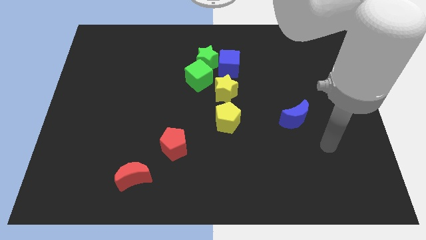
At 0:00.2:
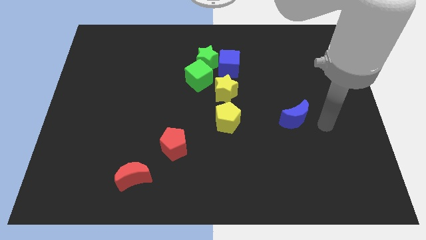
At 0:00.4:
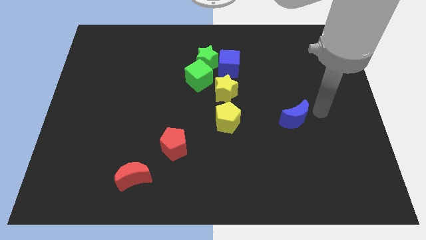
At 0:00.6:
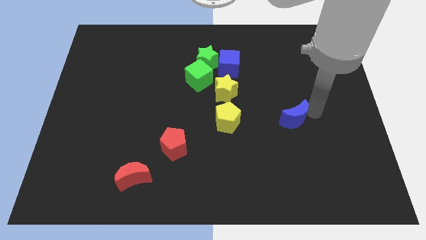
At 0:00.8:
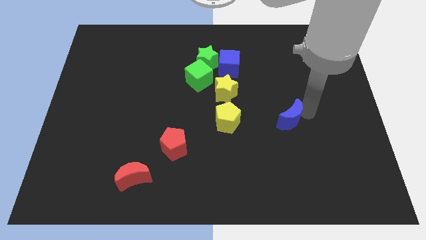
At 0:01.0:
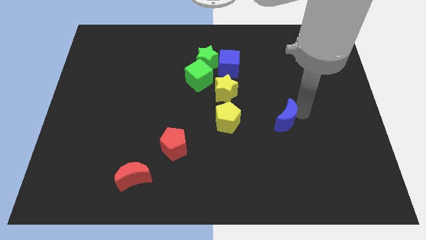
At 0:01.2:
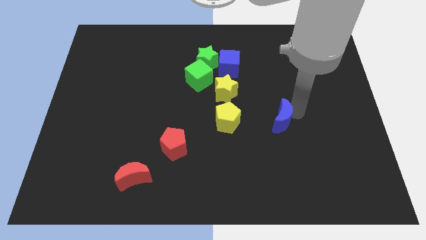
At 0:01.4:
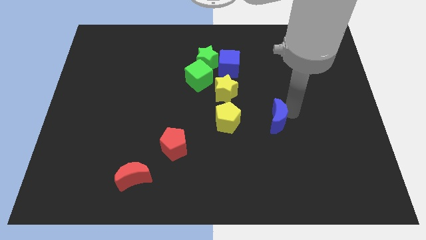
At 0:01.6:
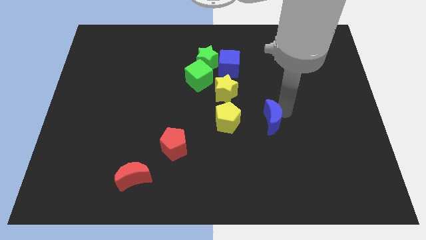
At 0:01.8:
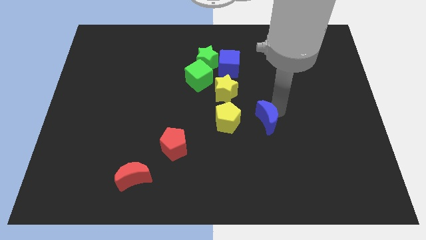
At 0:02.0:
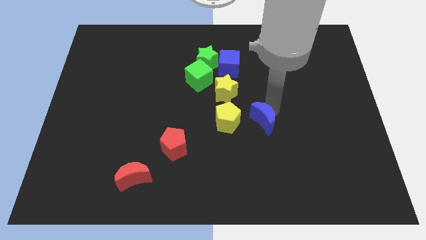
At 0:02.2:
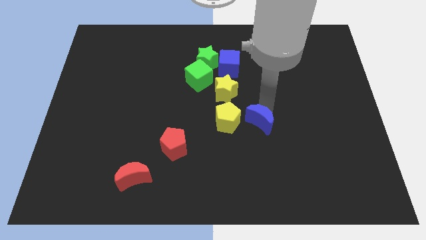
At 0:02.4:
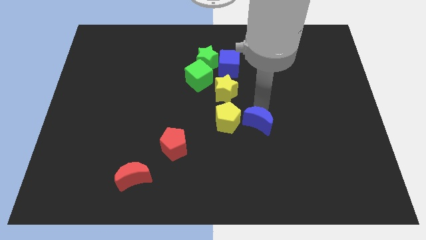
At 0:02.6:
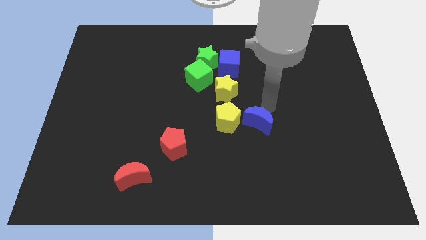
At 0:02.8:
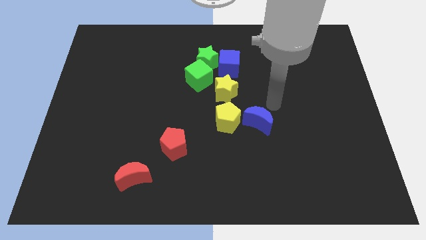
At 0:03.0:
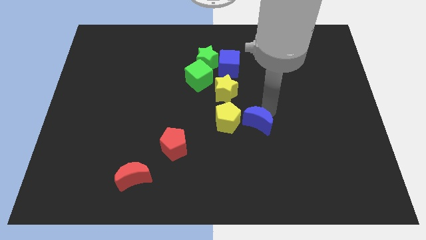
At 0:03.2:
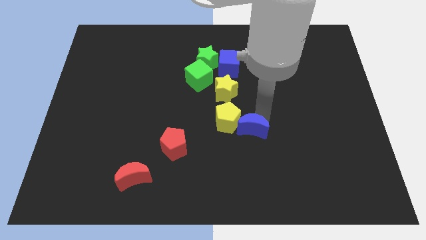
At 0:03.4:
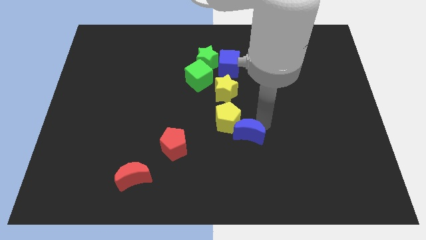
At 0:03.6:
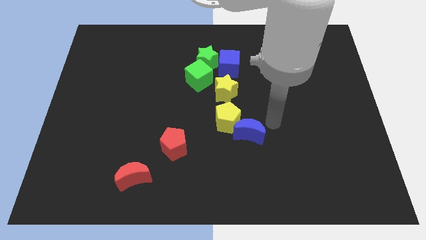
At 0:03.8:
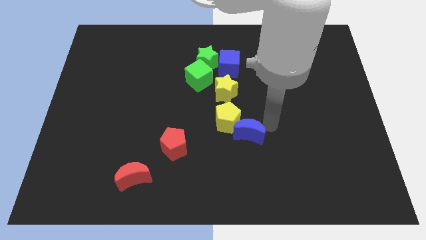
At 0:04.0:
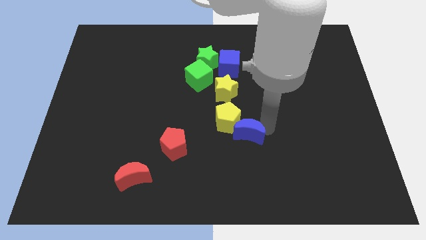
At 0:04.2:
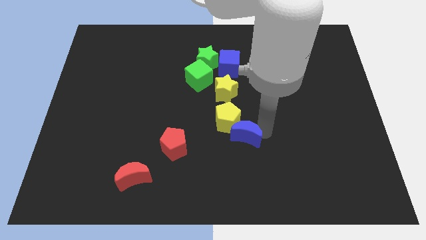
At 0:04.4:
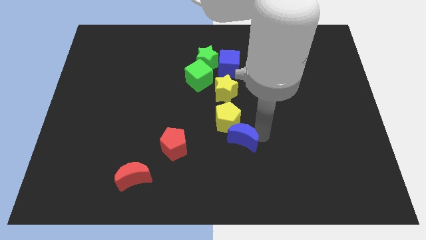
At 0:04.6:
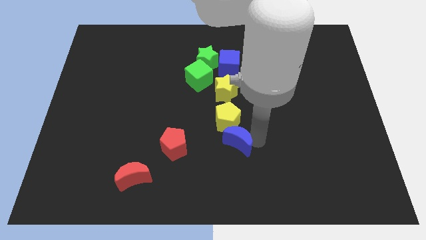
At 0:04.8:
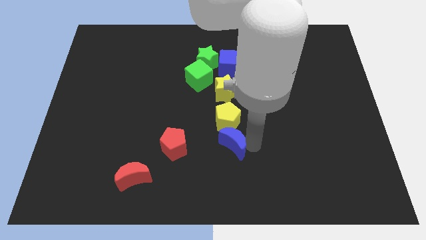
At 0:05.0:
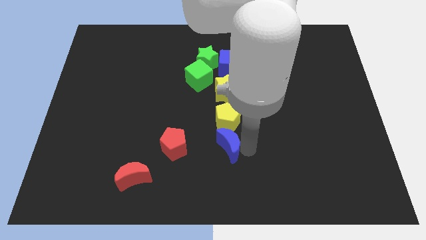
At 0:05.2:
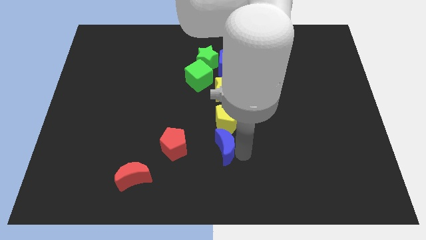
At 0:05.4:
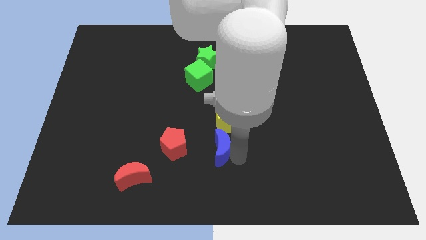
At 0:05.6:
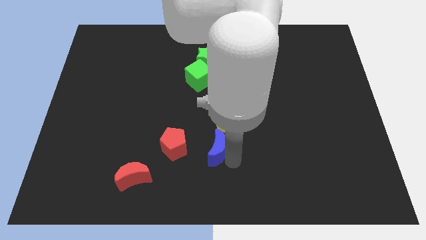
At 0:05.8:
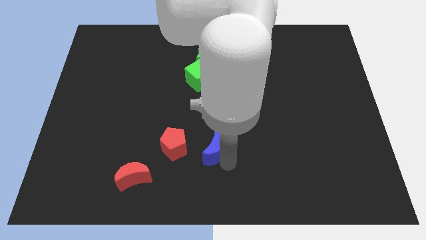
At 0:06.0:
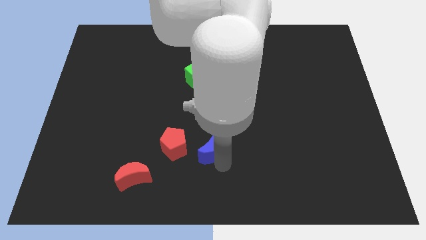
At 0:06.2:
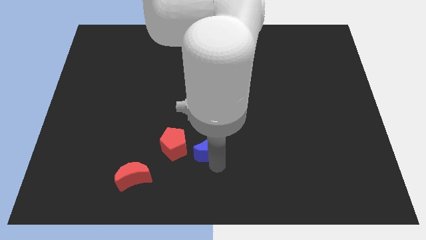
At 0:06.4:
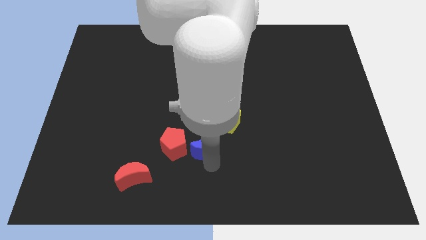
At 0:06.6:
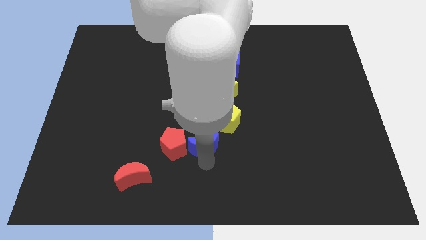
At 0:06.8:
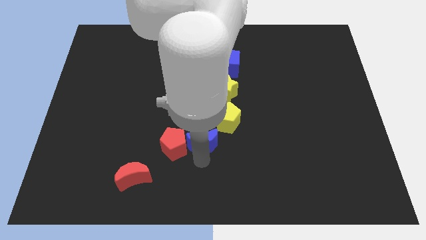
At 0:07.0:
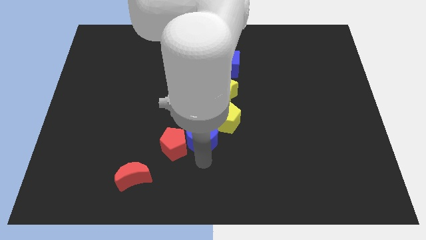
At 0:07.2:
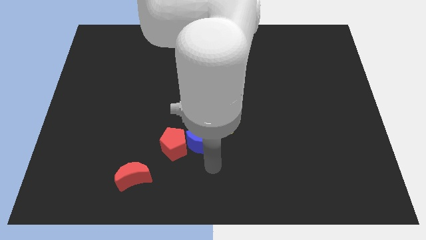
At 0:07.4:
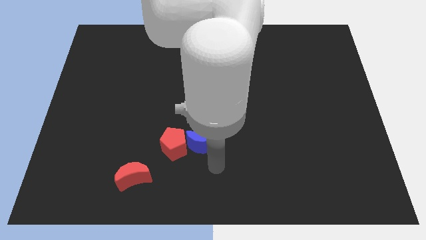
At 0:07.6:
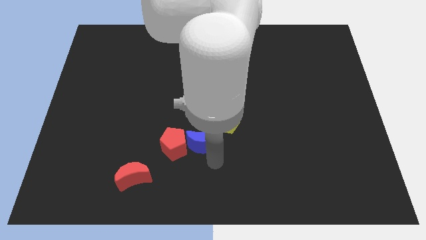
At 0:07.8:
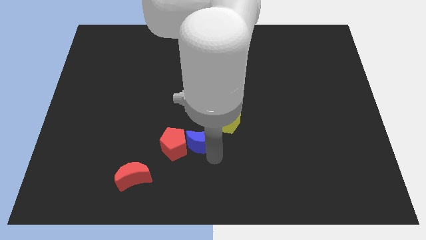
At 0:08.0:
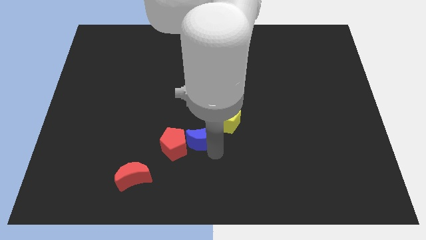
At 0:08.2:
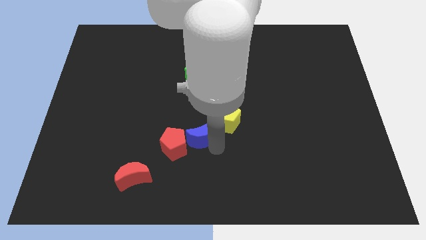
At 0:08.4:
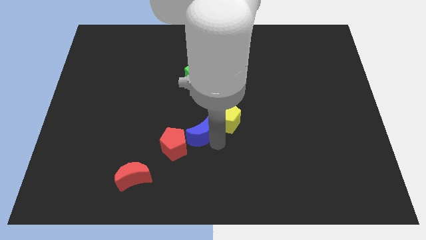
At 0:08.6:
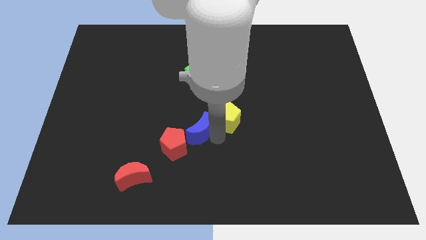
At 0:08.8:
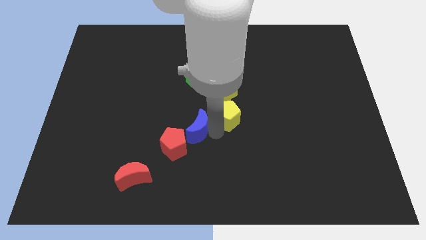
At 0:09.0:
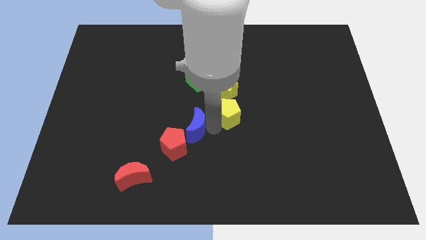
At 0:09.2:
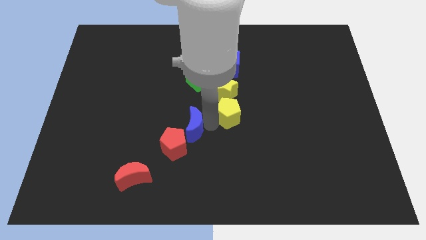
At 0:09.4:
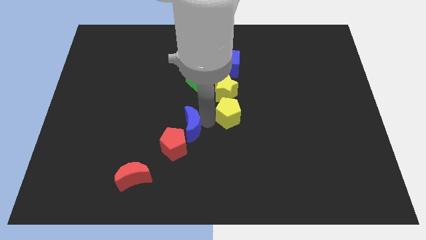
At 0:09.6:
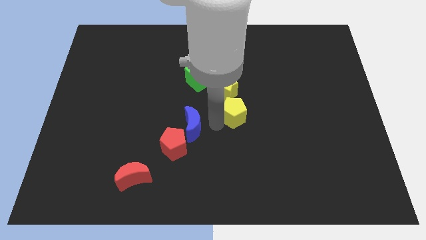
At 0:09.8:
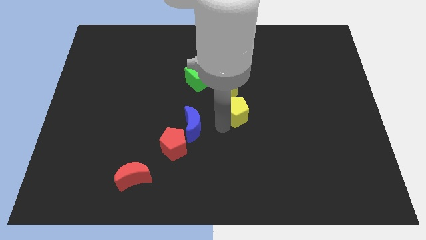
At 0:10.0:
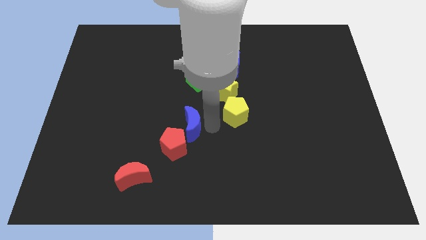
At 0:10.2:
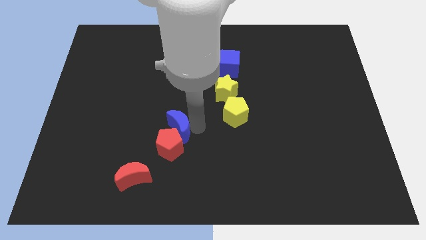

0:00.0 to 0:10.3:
move the blue moon to the top left of the red pentagon

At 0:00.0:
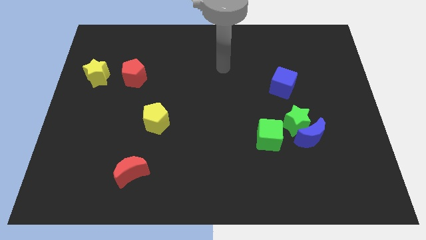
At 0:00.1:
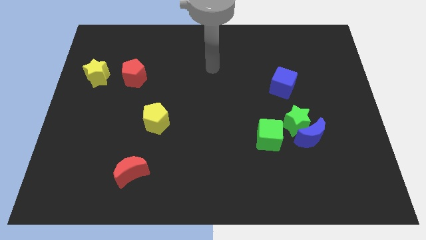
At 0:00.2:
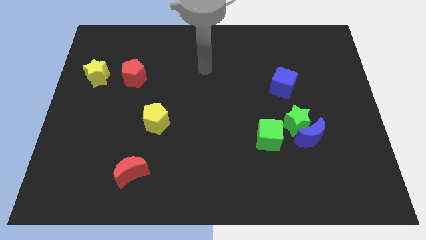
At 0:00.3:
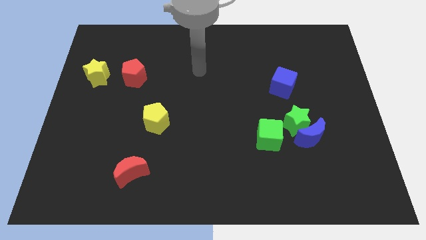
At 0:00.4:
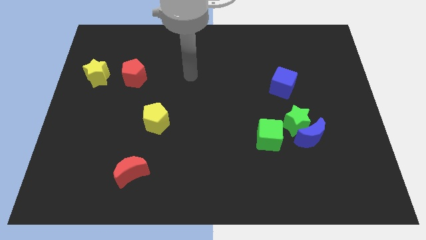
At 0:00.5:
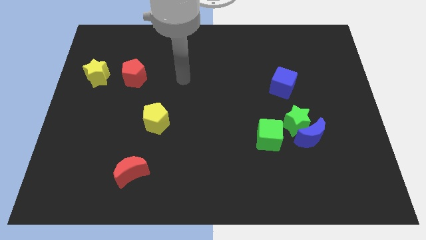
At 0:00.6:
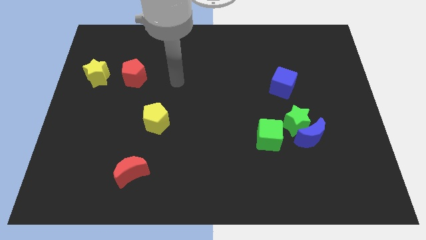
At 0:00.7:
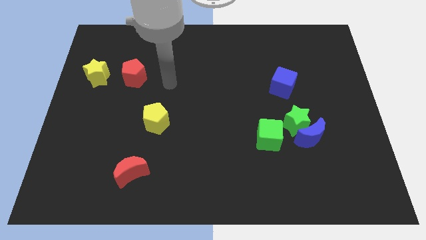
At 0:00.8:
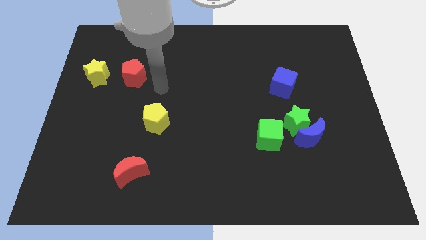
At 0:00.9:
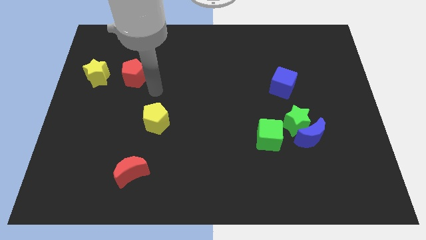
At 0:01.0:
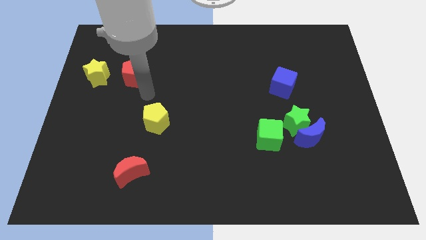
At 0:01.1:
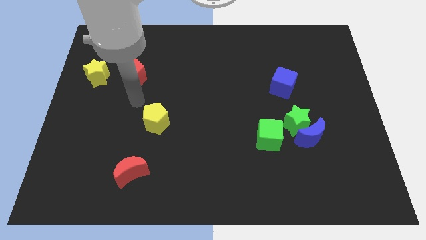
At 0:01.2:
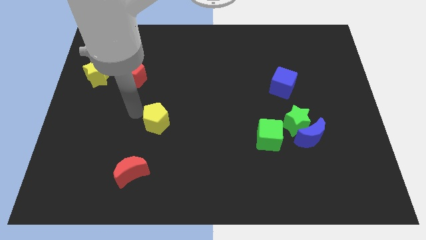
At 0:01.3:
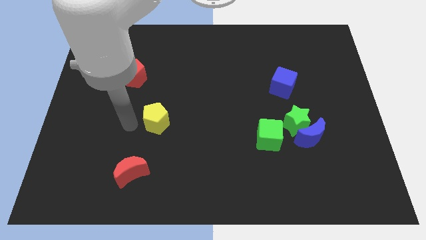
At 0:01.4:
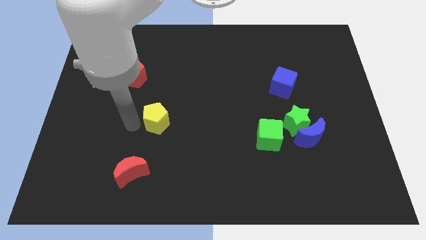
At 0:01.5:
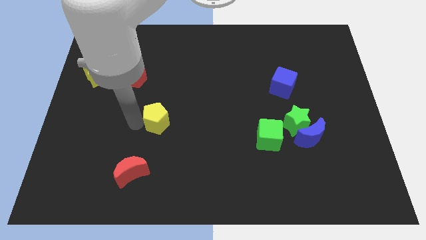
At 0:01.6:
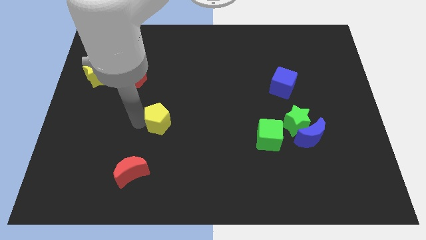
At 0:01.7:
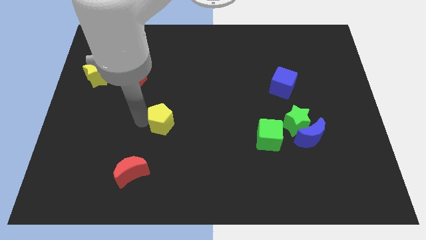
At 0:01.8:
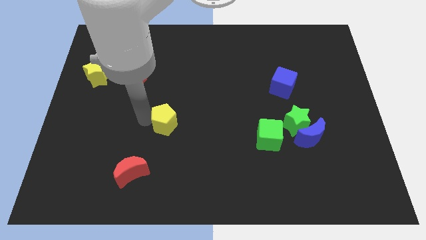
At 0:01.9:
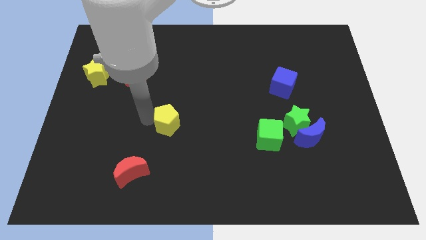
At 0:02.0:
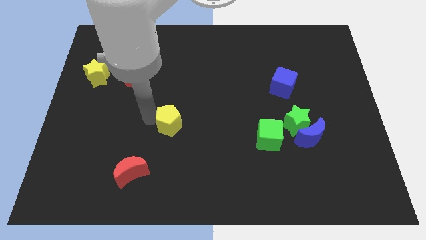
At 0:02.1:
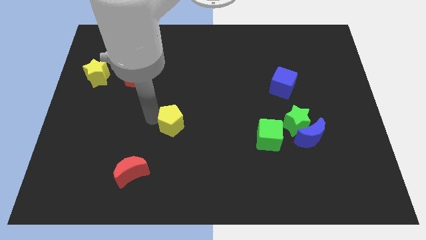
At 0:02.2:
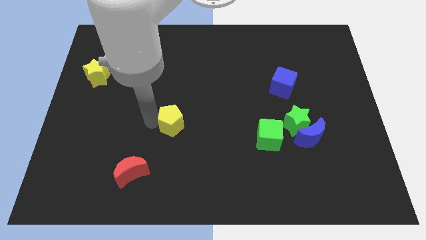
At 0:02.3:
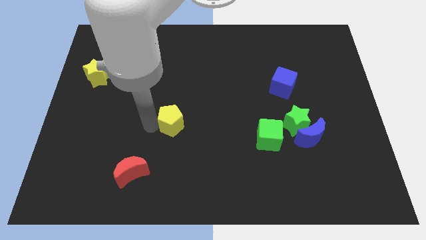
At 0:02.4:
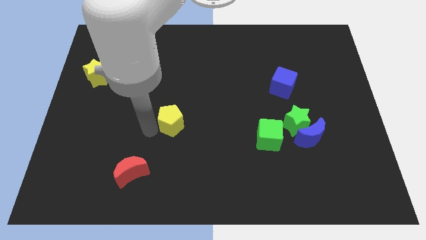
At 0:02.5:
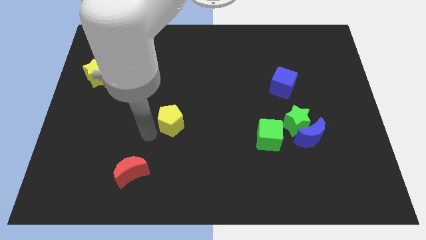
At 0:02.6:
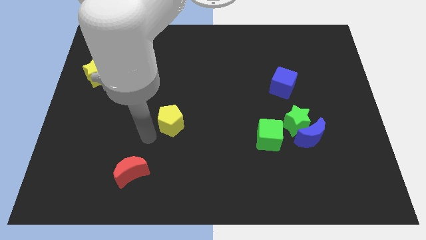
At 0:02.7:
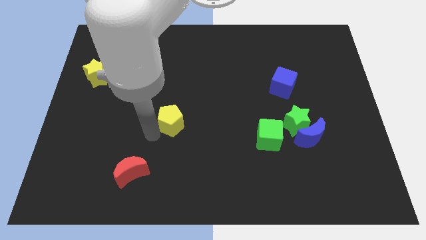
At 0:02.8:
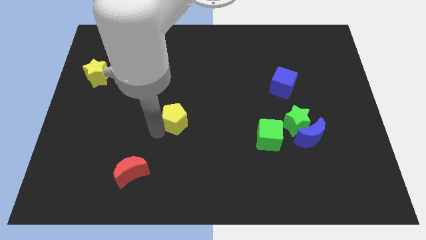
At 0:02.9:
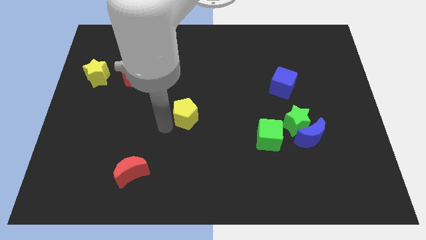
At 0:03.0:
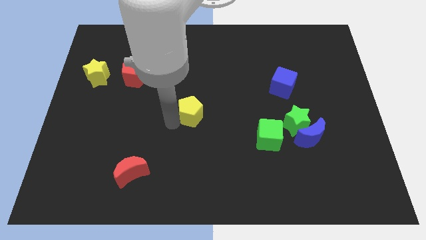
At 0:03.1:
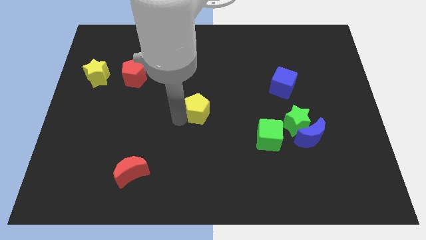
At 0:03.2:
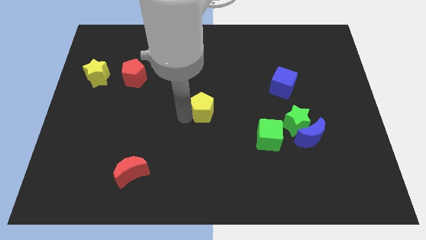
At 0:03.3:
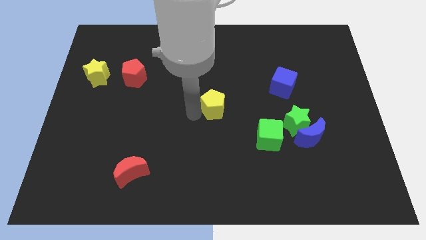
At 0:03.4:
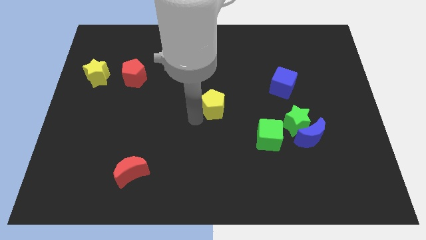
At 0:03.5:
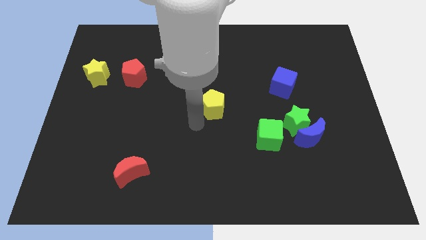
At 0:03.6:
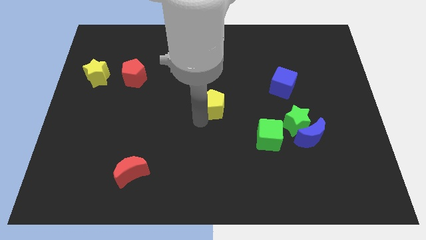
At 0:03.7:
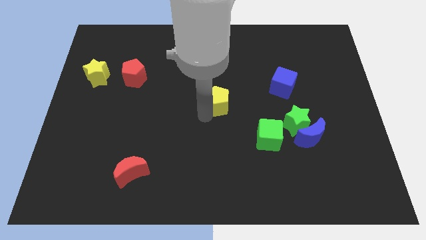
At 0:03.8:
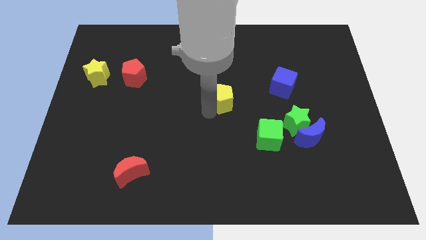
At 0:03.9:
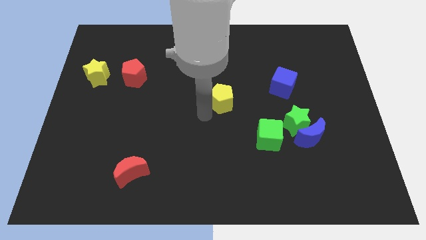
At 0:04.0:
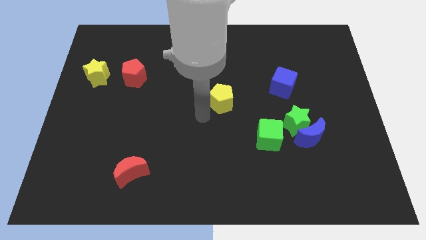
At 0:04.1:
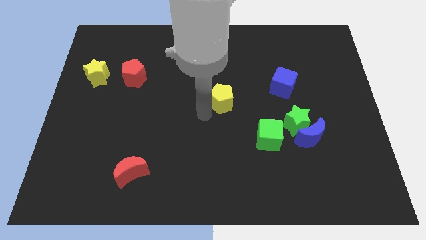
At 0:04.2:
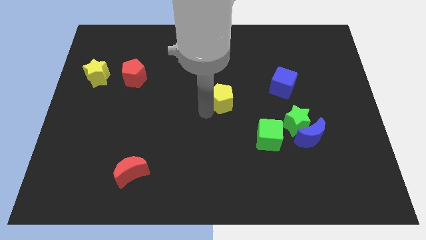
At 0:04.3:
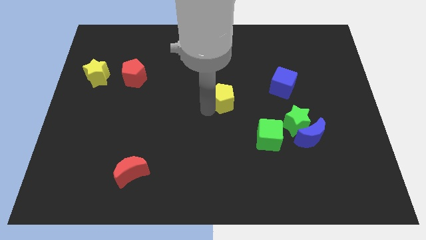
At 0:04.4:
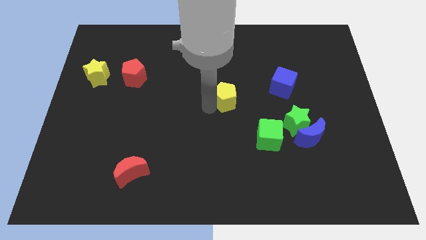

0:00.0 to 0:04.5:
move the yellow pentagon just left of the blue cube
